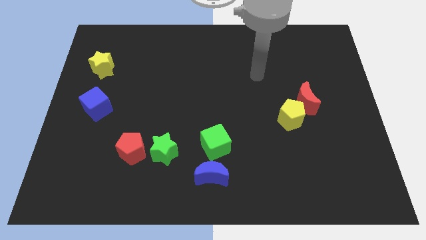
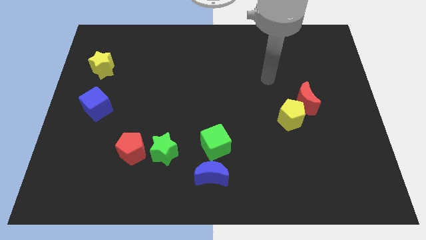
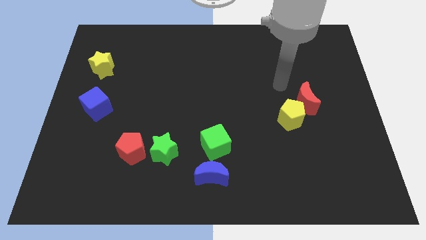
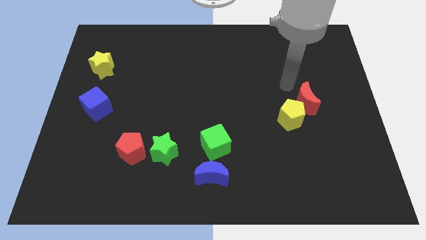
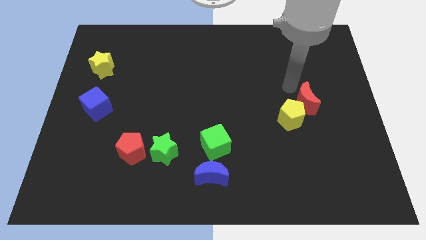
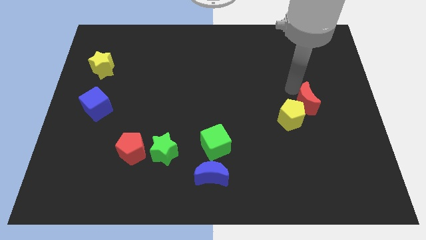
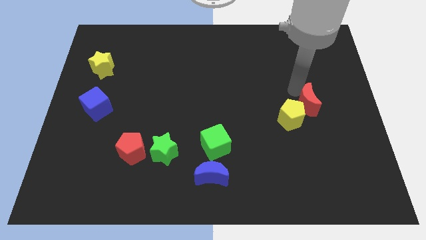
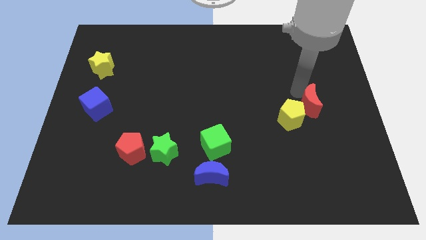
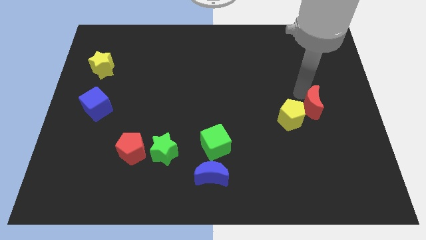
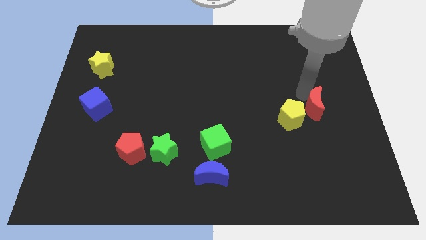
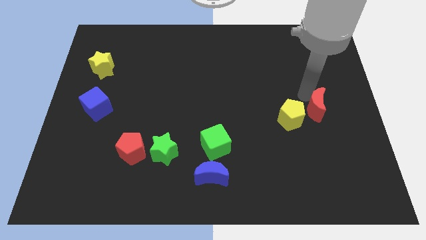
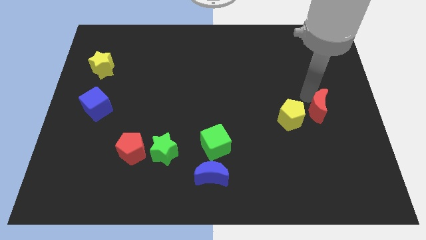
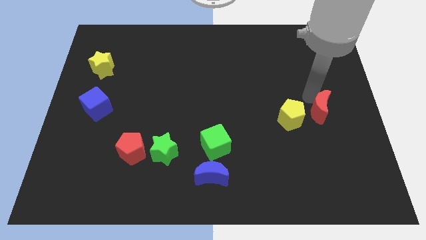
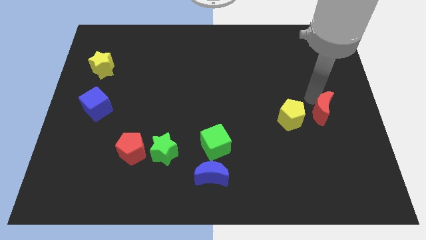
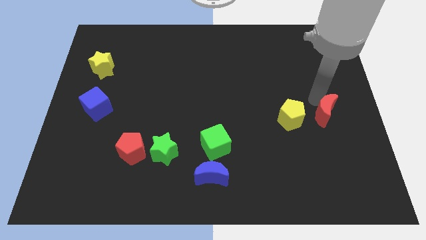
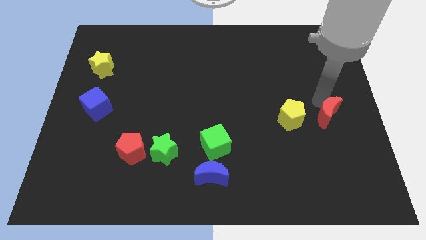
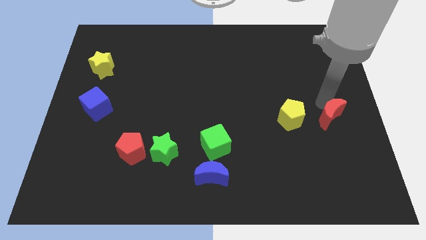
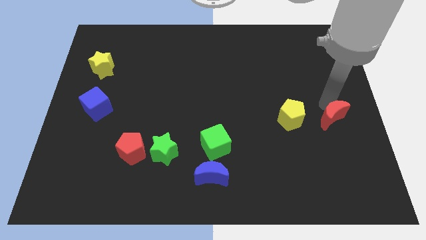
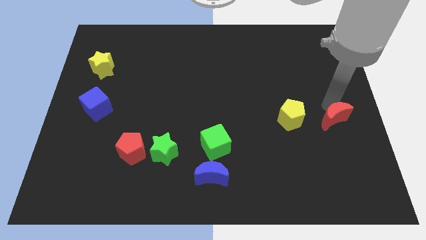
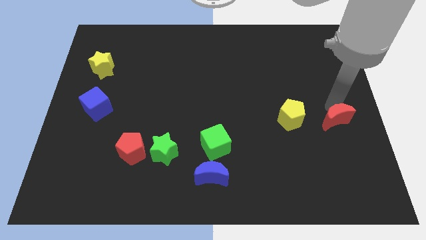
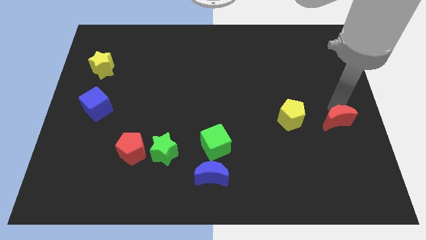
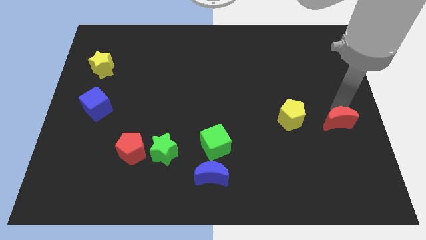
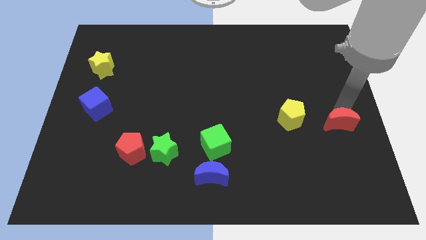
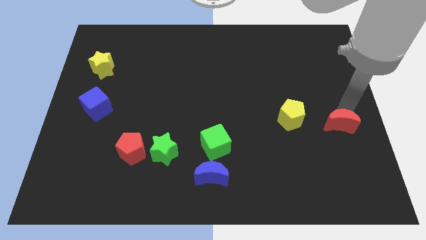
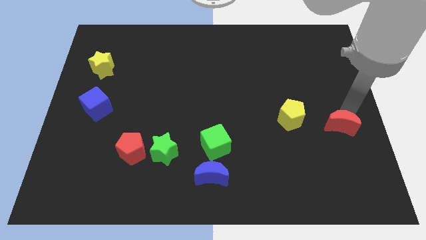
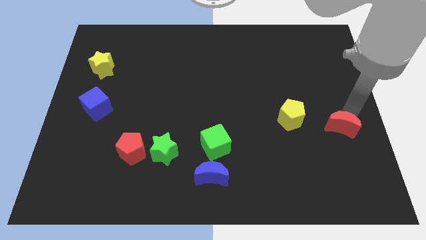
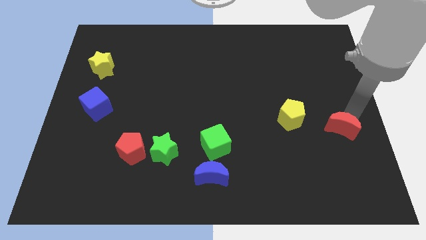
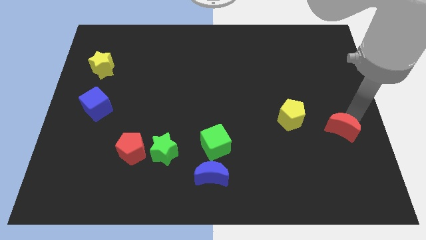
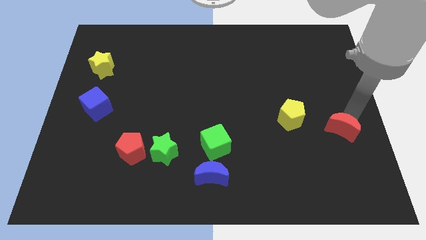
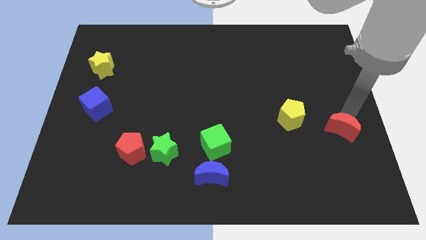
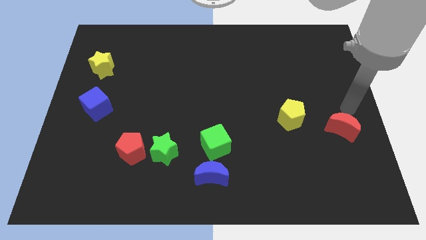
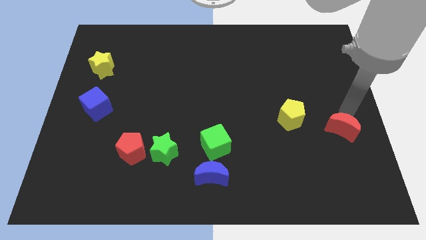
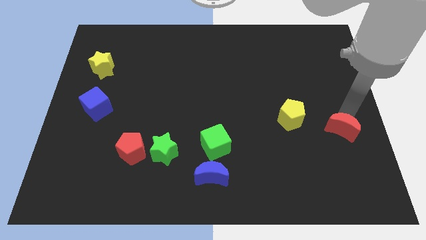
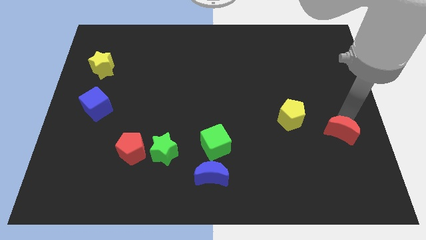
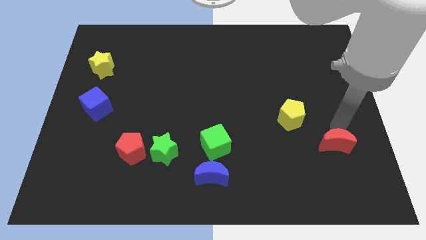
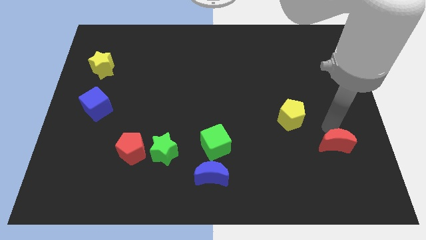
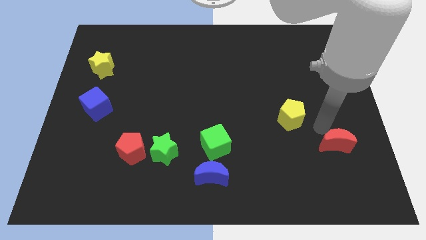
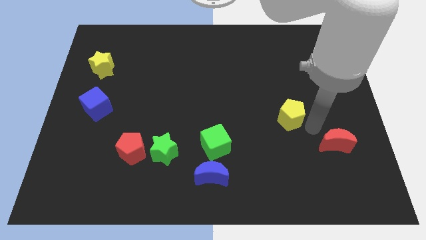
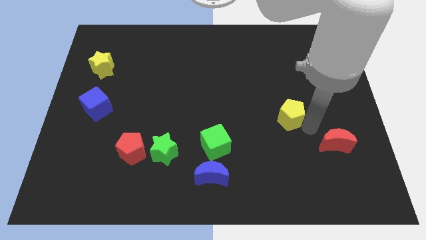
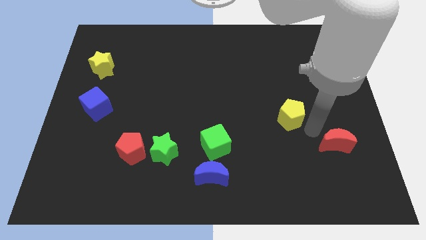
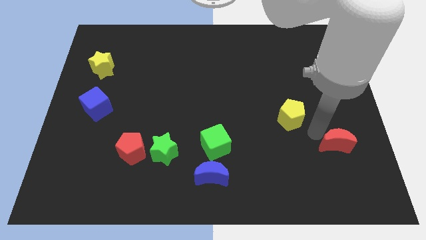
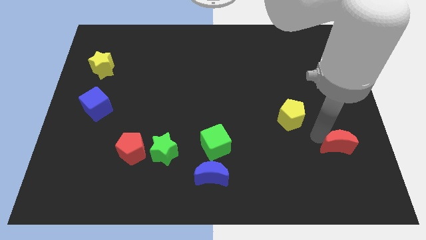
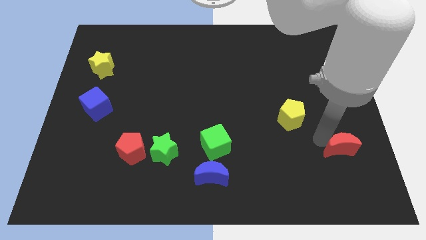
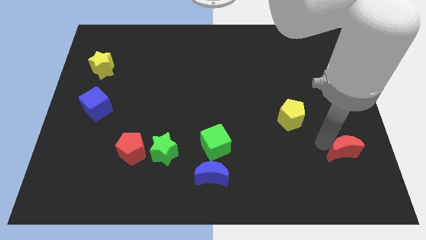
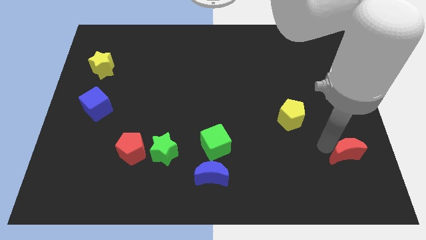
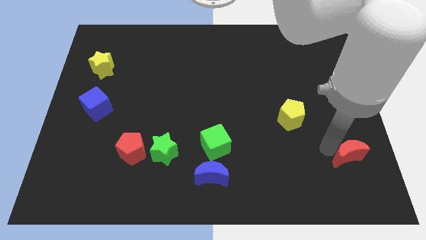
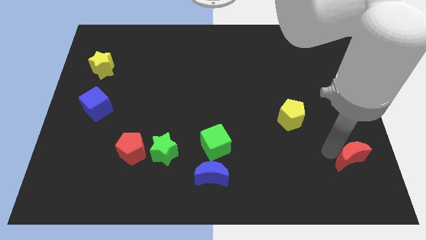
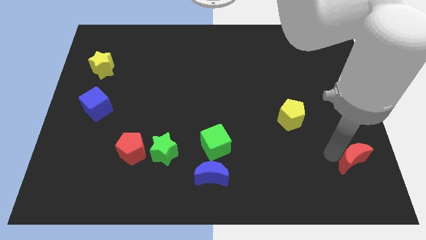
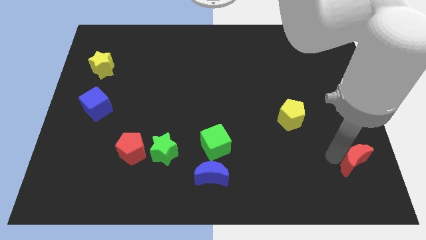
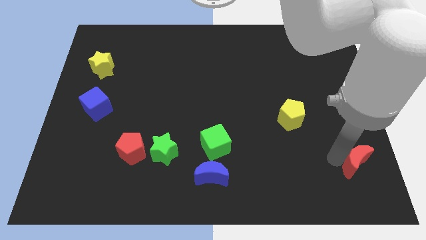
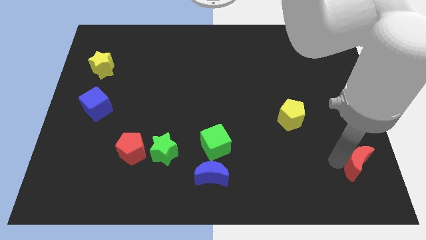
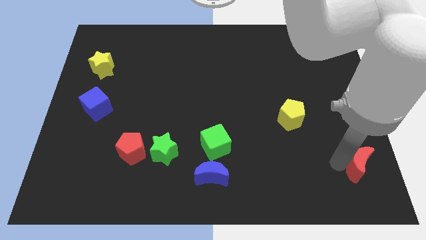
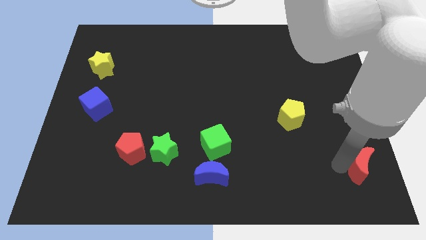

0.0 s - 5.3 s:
push the red moon to the lower right corner

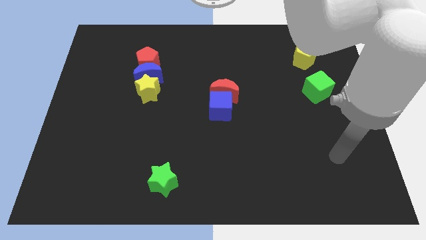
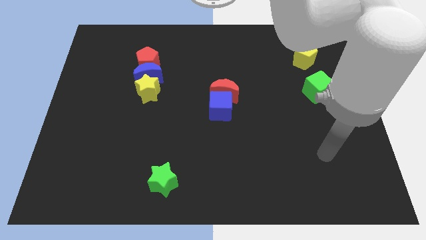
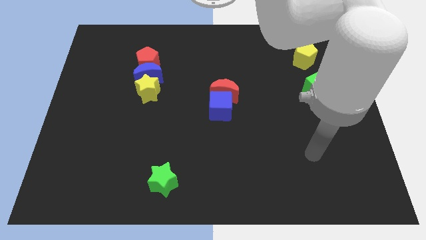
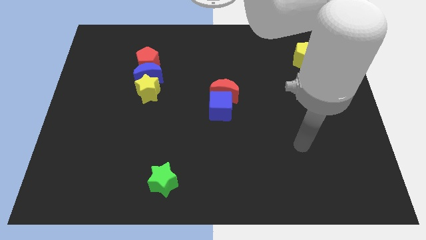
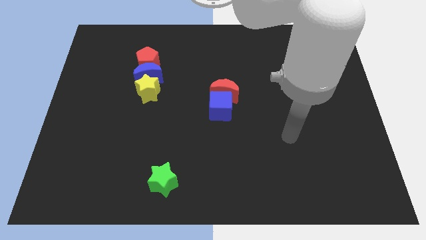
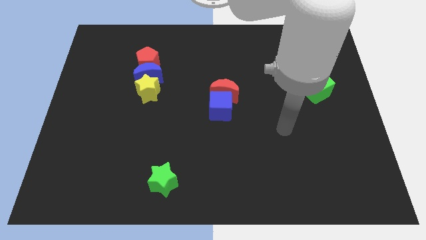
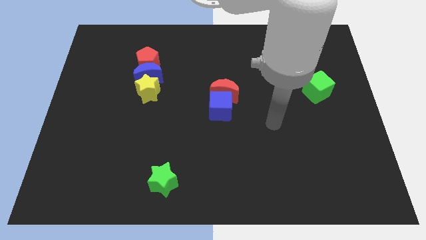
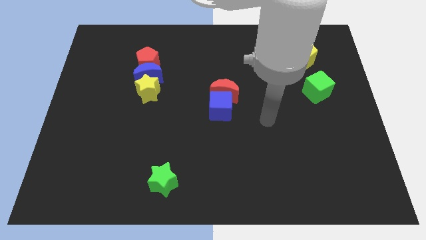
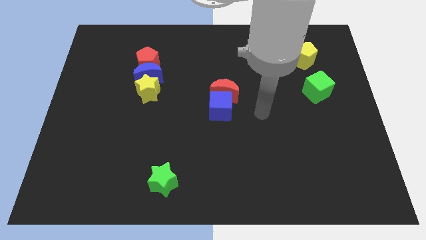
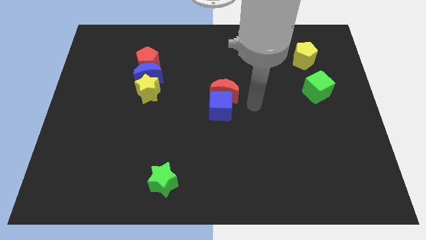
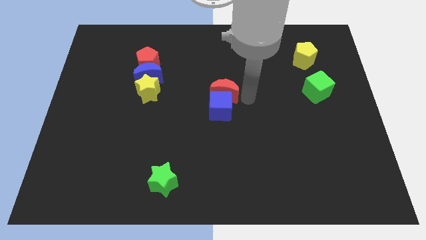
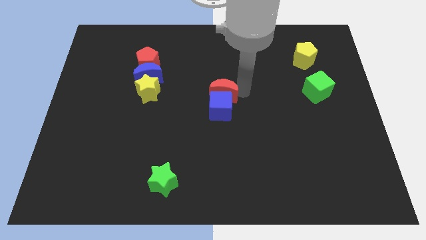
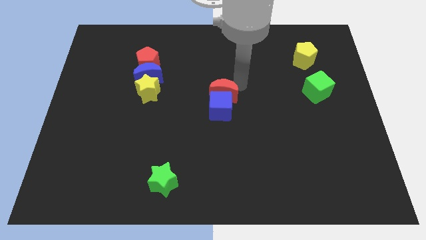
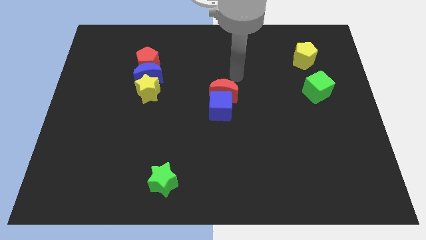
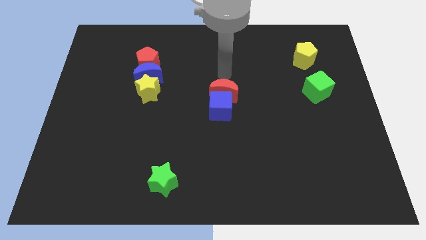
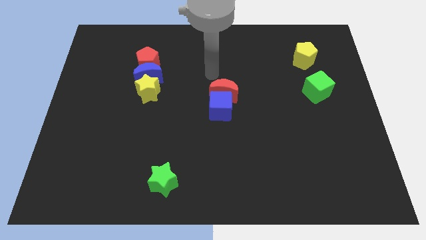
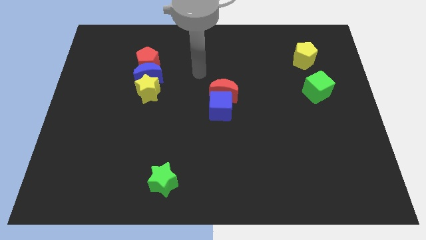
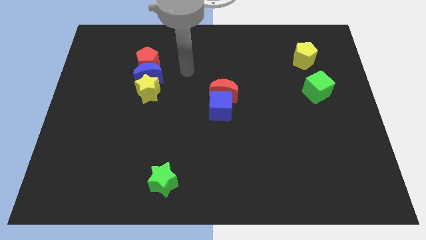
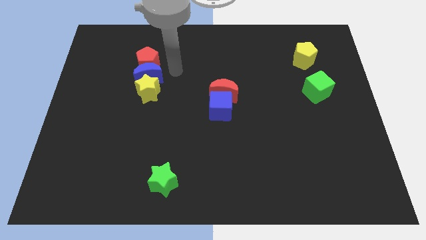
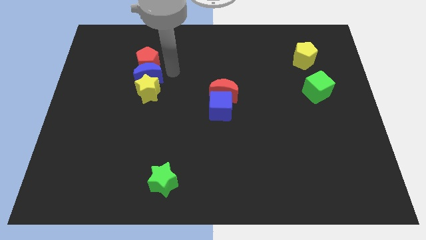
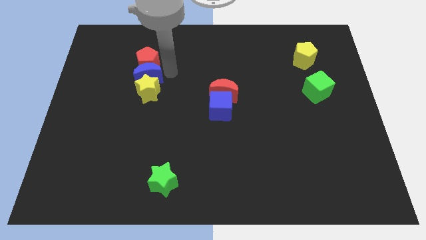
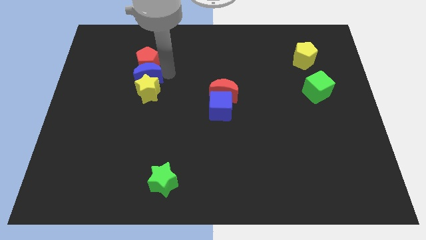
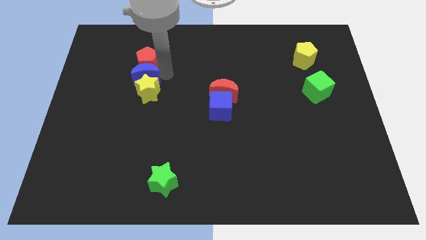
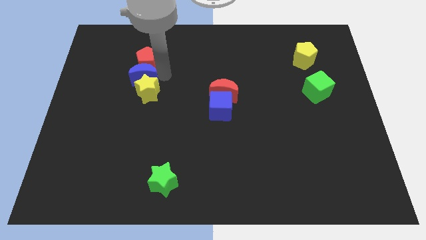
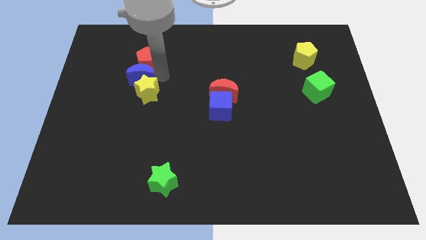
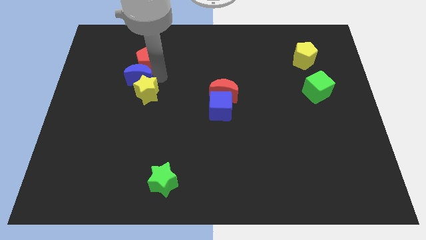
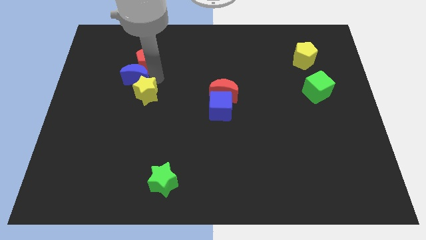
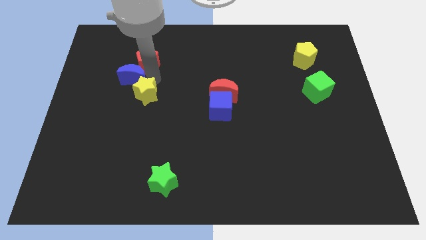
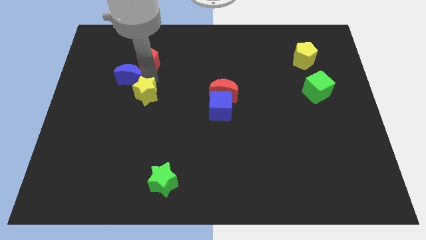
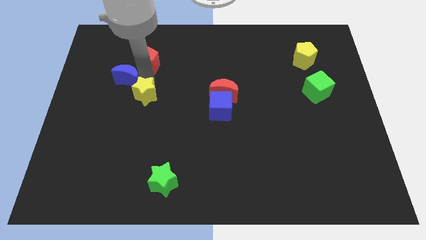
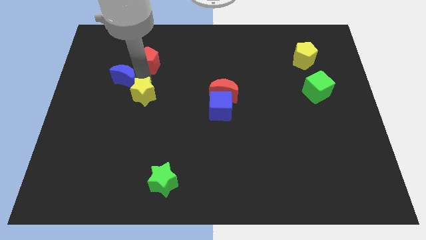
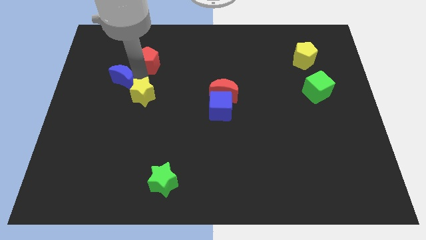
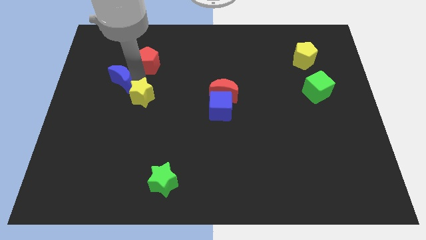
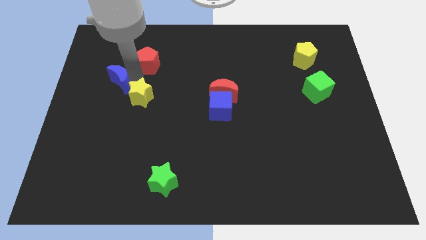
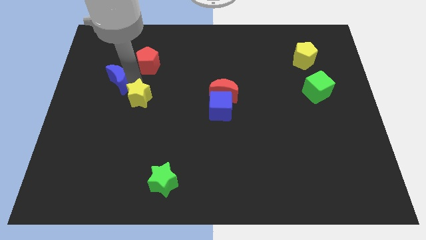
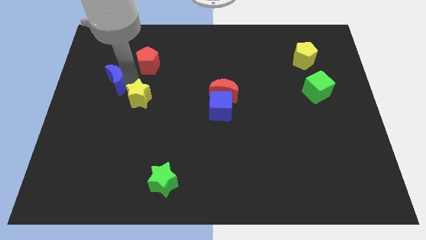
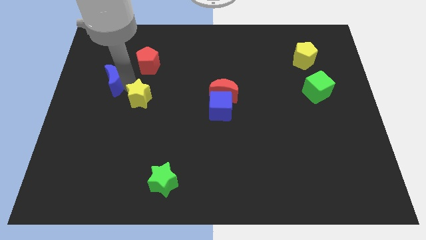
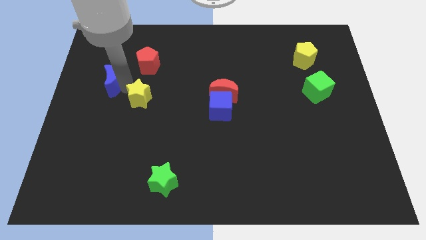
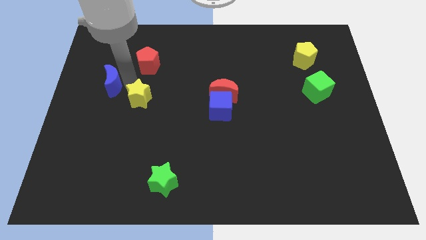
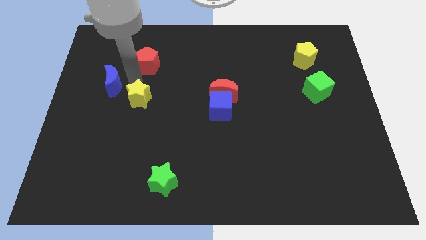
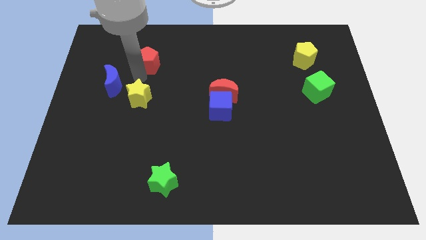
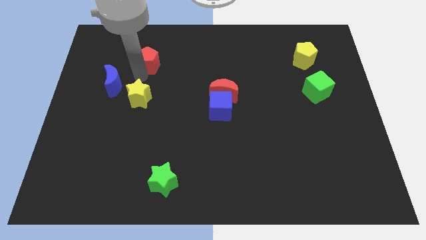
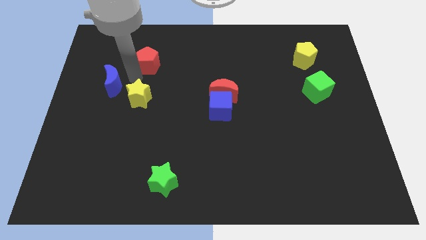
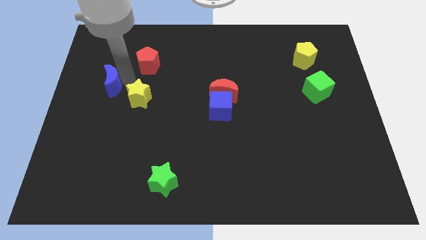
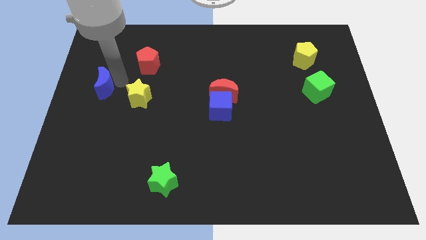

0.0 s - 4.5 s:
push the blue moon to the left side of the board
